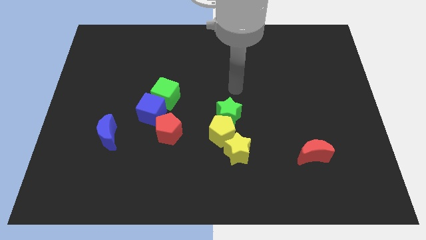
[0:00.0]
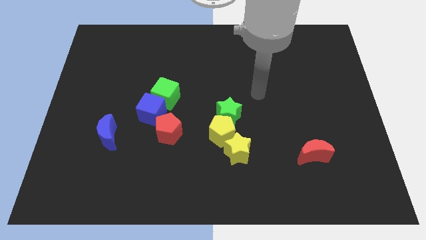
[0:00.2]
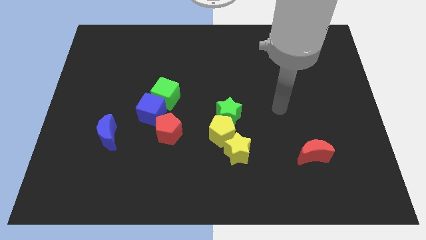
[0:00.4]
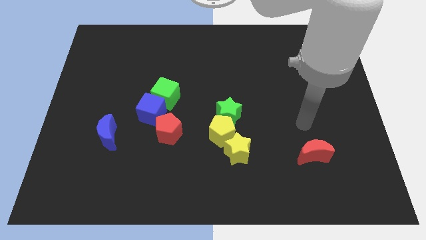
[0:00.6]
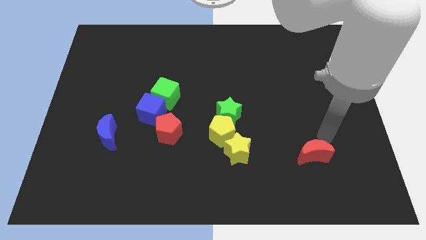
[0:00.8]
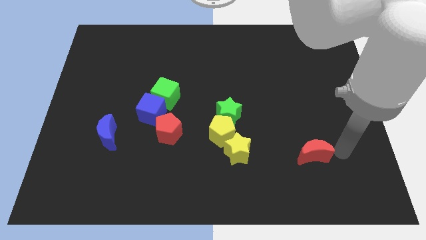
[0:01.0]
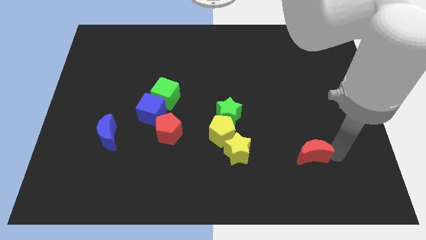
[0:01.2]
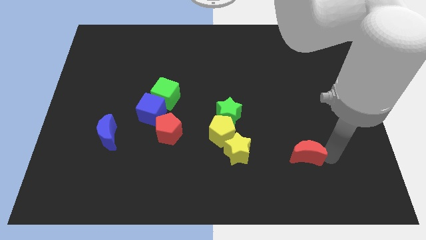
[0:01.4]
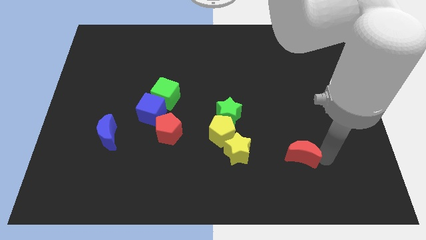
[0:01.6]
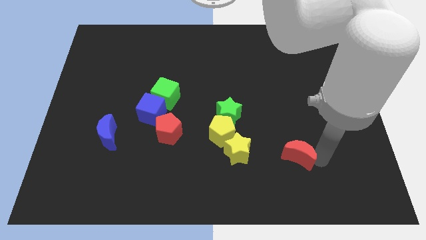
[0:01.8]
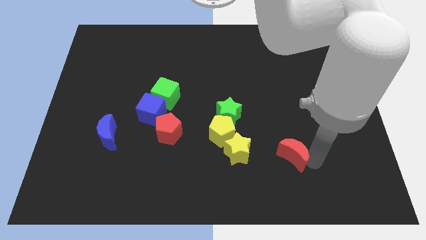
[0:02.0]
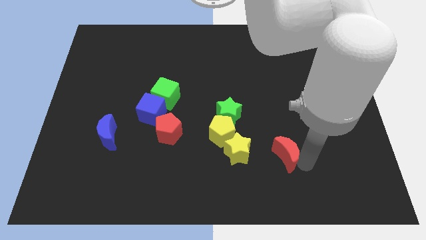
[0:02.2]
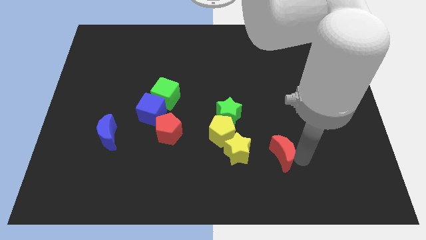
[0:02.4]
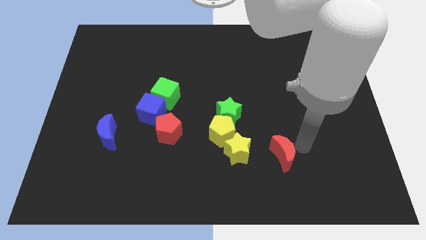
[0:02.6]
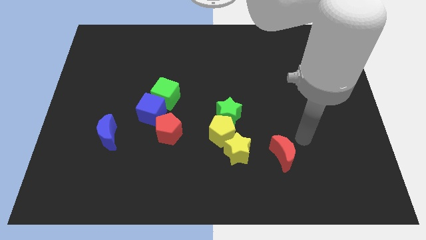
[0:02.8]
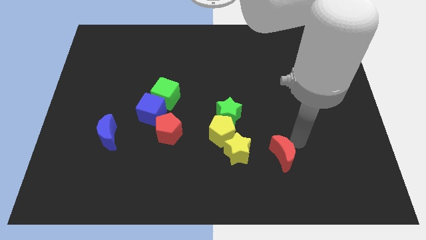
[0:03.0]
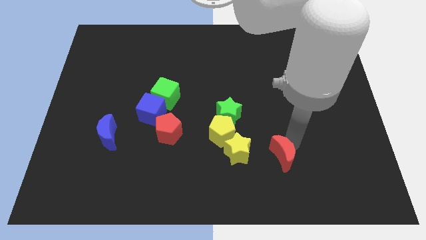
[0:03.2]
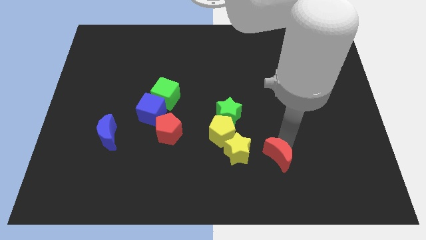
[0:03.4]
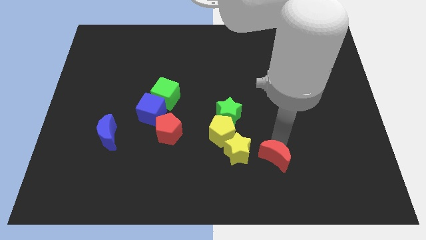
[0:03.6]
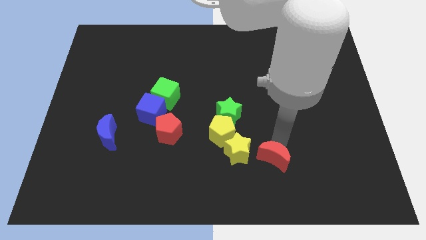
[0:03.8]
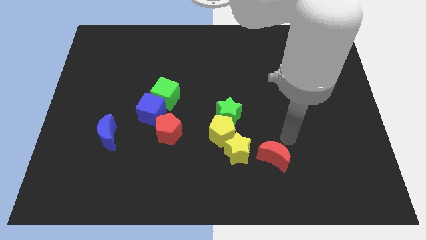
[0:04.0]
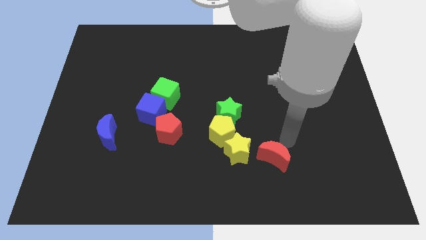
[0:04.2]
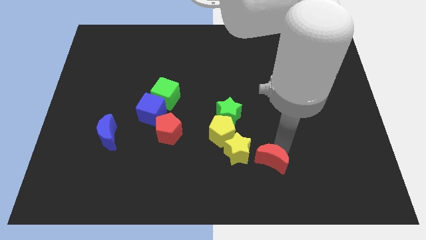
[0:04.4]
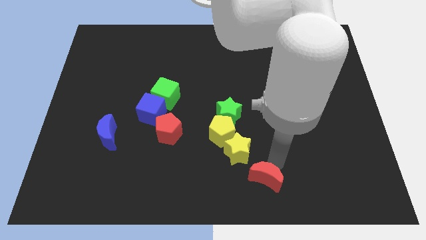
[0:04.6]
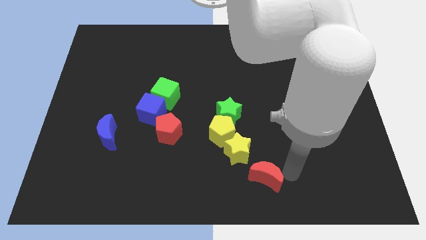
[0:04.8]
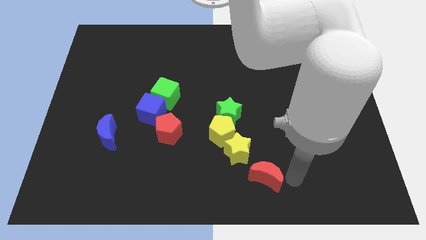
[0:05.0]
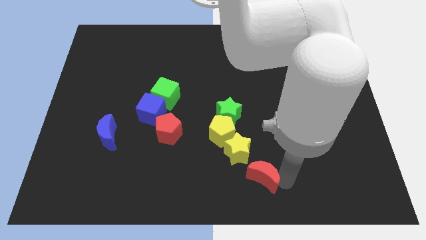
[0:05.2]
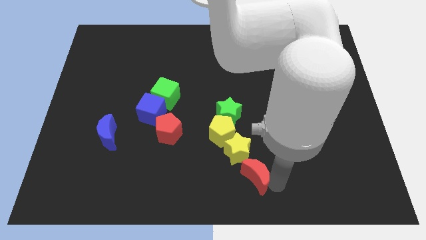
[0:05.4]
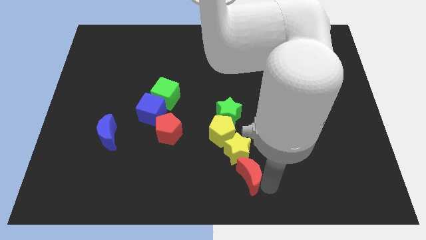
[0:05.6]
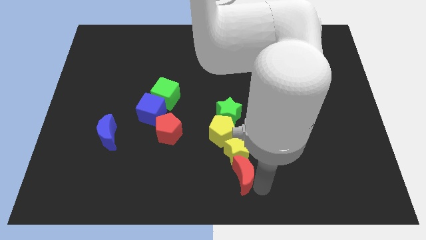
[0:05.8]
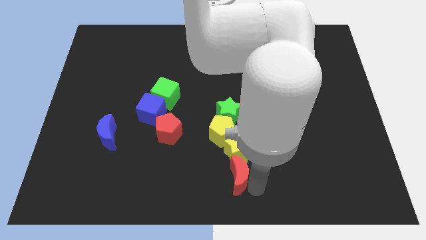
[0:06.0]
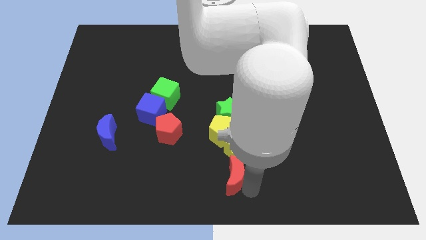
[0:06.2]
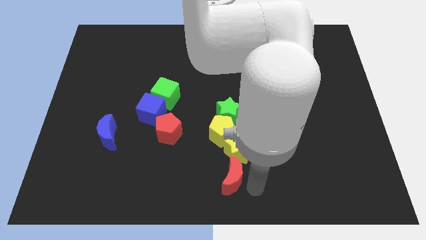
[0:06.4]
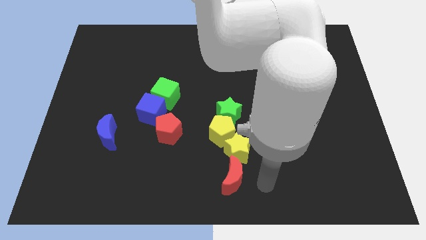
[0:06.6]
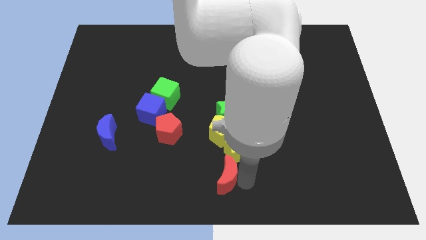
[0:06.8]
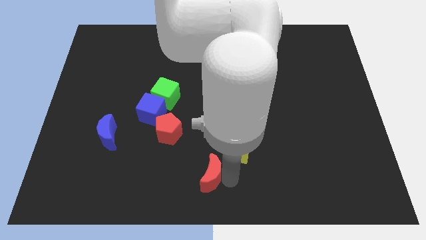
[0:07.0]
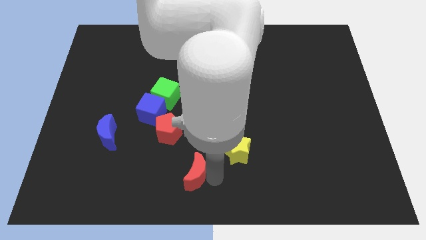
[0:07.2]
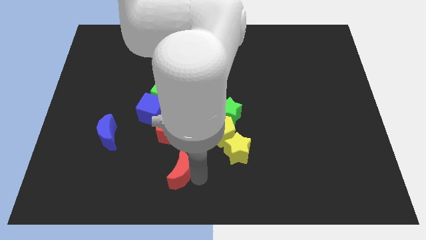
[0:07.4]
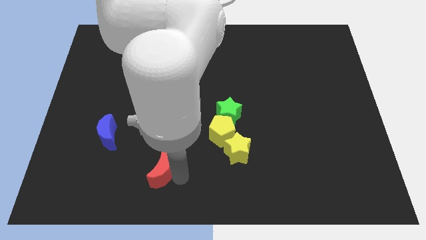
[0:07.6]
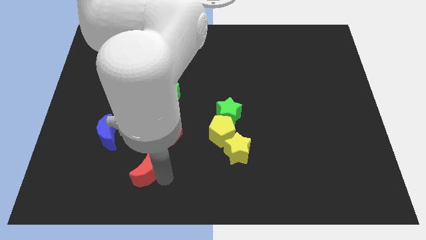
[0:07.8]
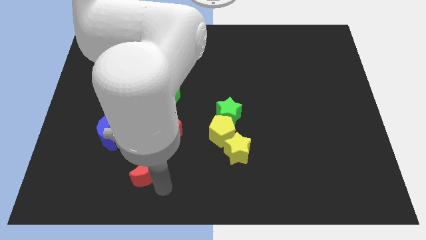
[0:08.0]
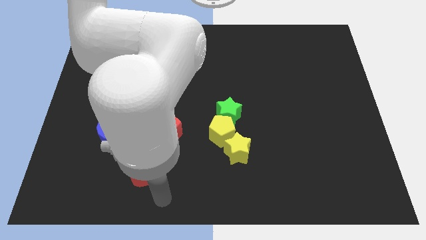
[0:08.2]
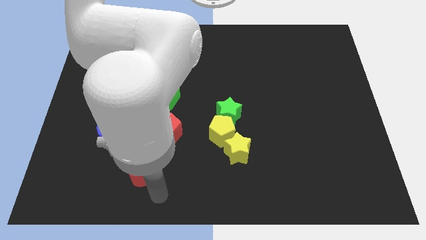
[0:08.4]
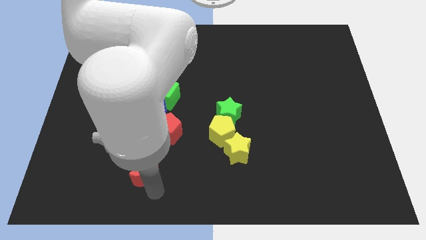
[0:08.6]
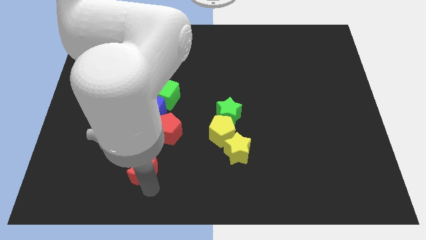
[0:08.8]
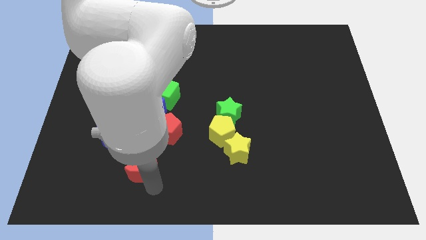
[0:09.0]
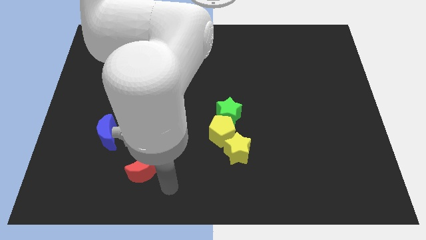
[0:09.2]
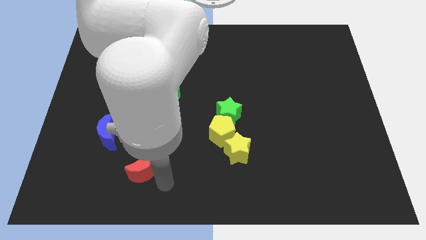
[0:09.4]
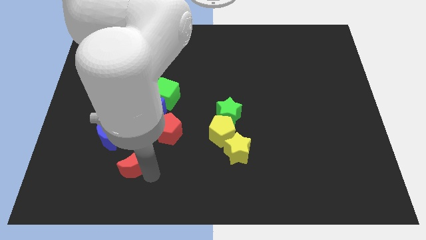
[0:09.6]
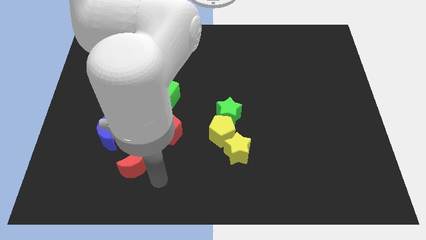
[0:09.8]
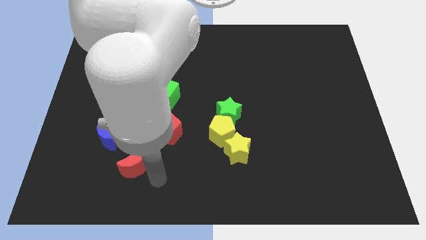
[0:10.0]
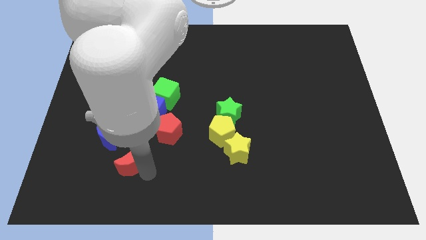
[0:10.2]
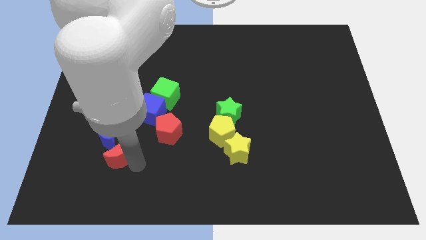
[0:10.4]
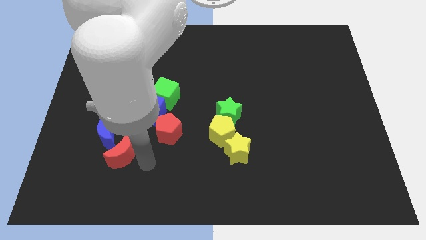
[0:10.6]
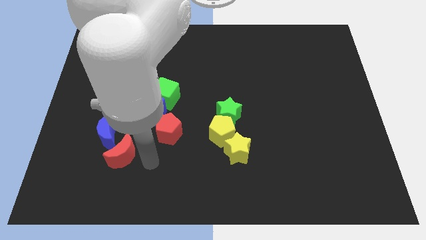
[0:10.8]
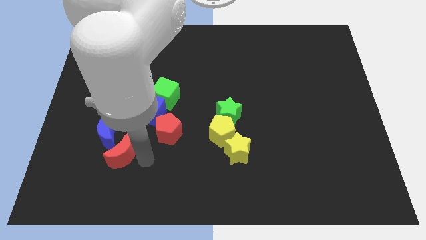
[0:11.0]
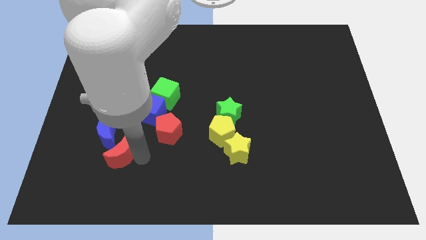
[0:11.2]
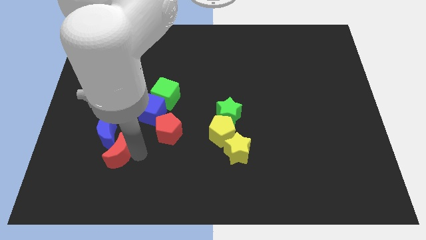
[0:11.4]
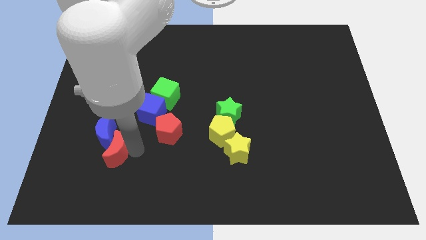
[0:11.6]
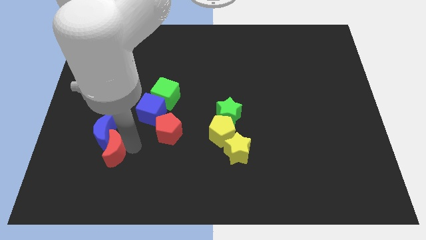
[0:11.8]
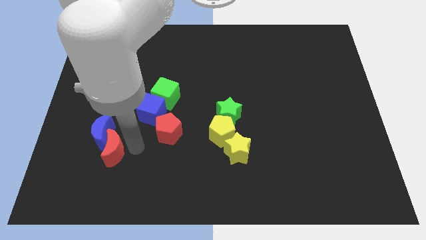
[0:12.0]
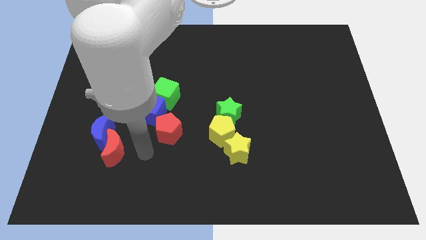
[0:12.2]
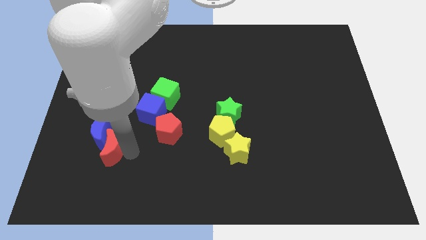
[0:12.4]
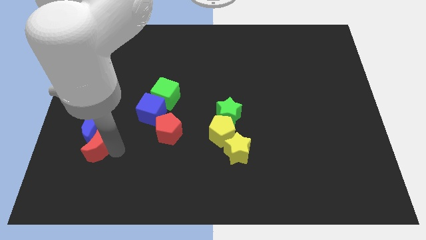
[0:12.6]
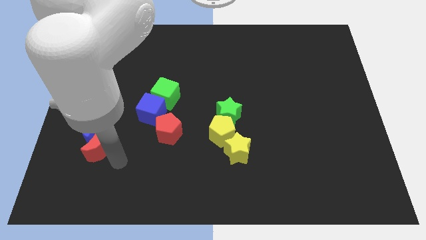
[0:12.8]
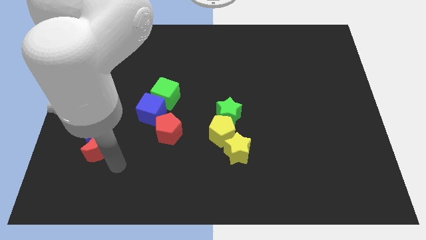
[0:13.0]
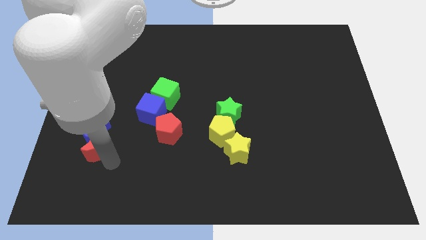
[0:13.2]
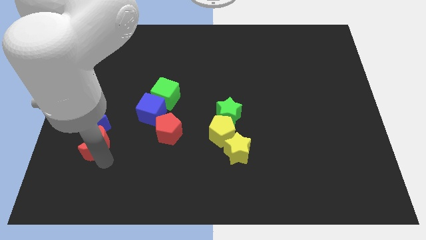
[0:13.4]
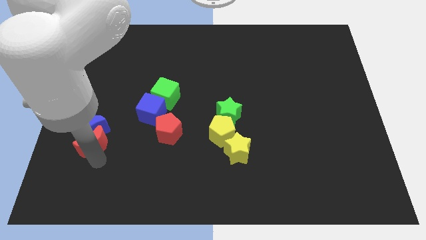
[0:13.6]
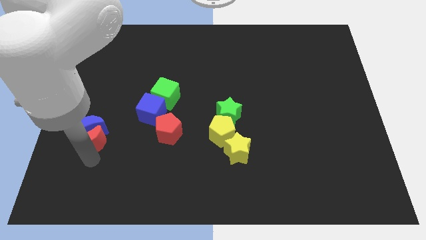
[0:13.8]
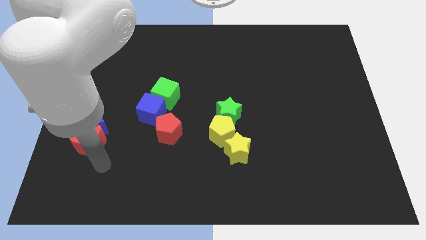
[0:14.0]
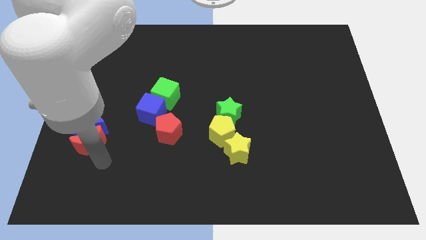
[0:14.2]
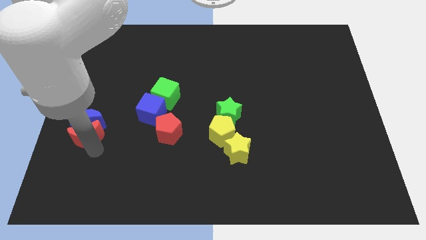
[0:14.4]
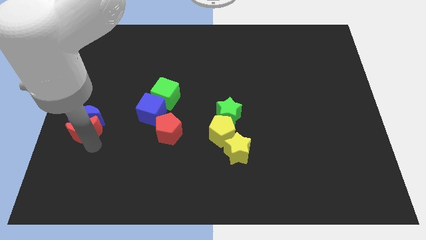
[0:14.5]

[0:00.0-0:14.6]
put the red moon to the left side of the board
